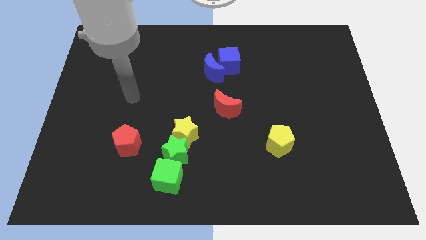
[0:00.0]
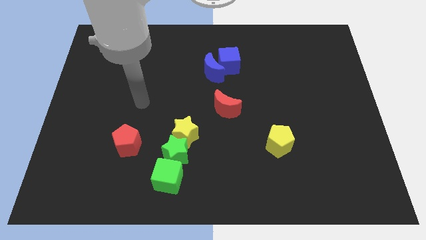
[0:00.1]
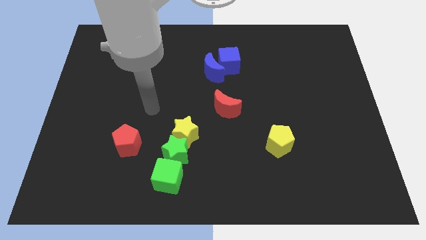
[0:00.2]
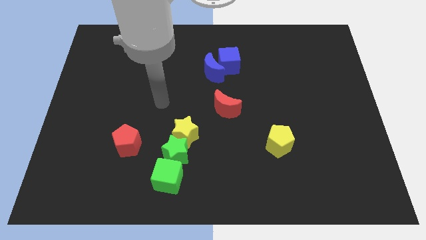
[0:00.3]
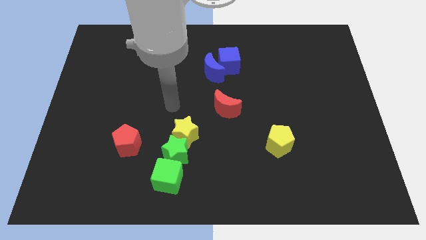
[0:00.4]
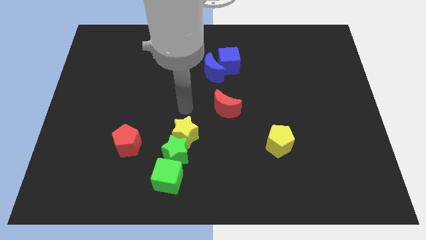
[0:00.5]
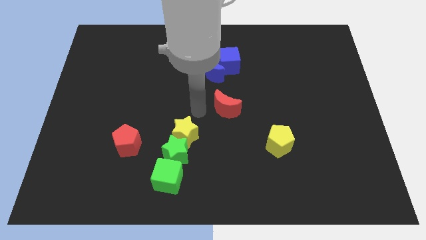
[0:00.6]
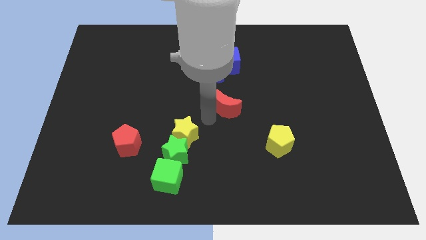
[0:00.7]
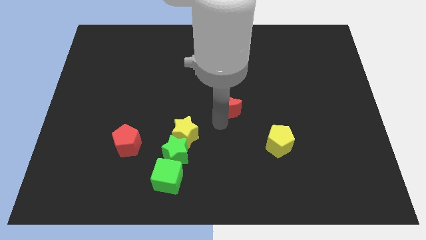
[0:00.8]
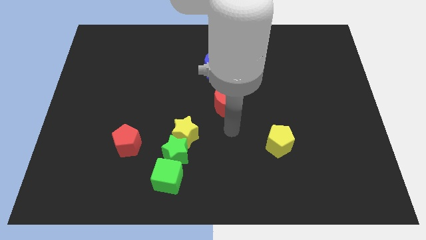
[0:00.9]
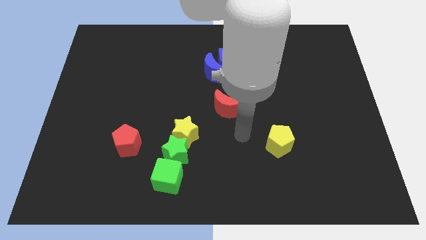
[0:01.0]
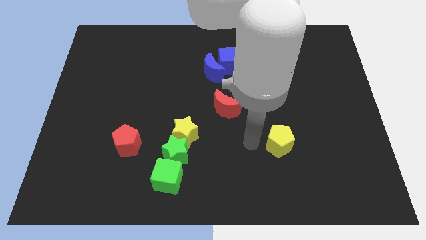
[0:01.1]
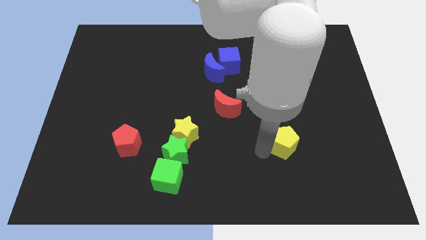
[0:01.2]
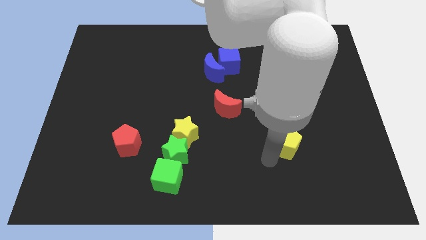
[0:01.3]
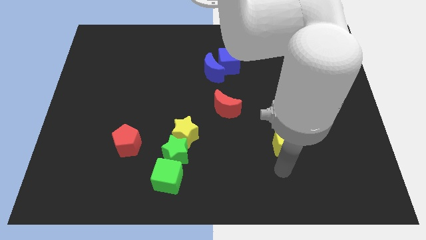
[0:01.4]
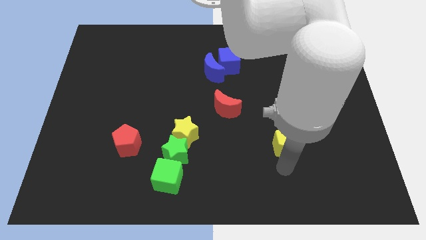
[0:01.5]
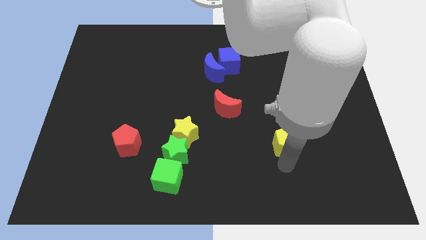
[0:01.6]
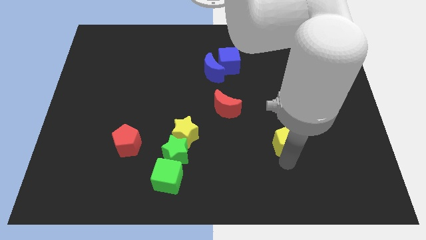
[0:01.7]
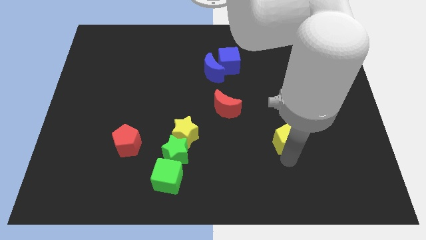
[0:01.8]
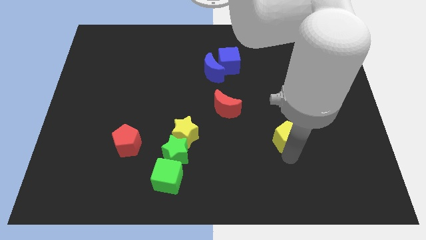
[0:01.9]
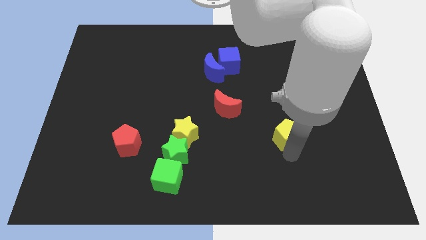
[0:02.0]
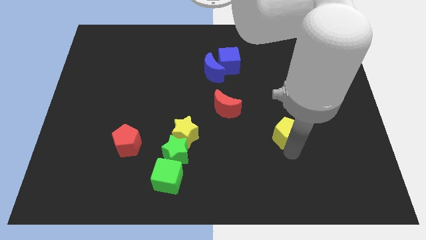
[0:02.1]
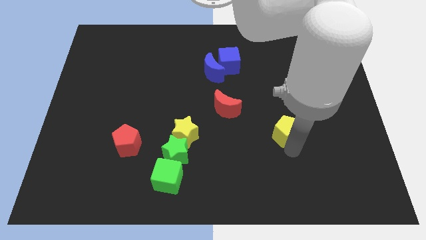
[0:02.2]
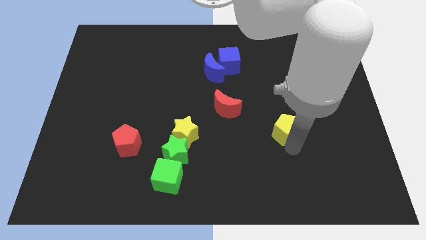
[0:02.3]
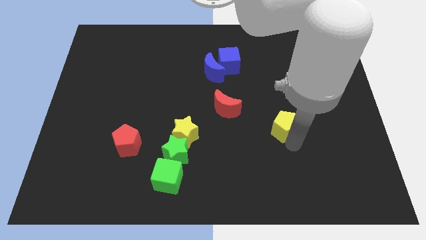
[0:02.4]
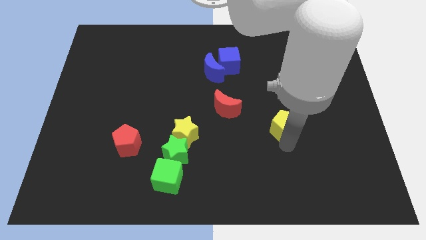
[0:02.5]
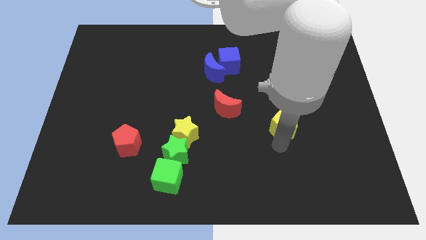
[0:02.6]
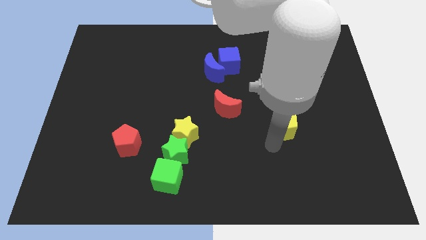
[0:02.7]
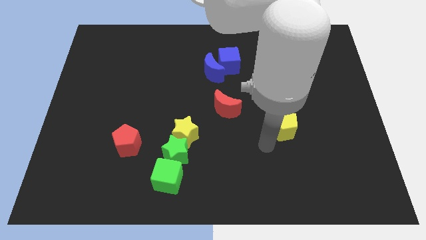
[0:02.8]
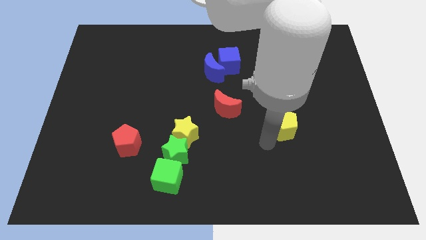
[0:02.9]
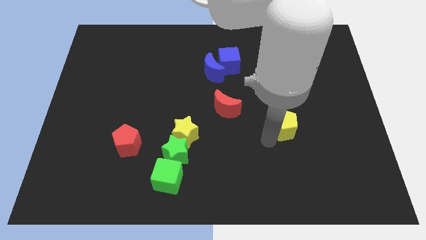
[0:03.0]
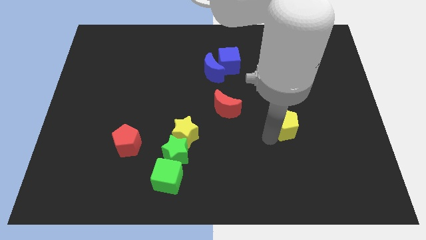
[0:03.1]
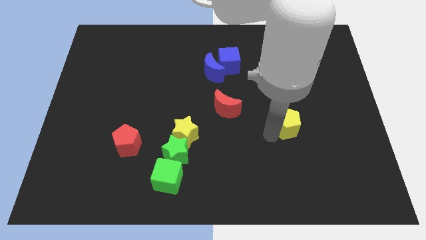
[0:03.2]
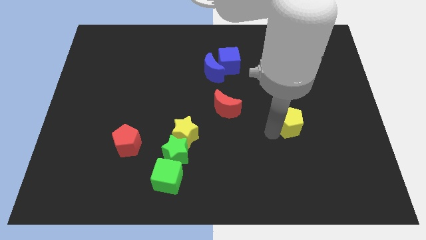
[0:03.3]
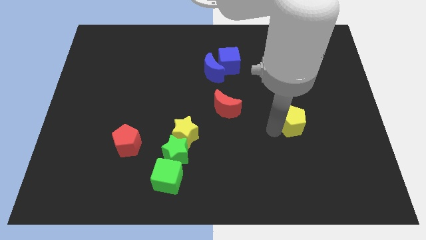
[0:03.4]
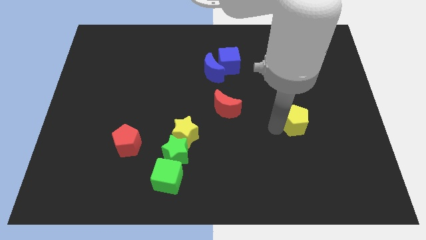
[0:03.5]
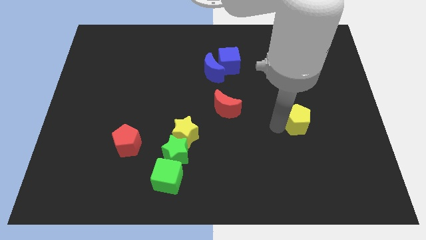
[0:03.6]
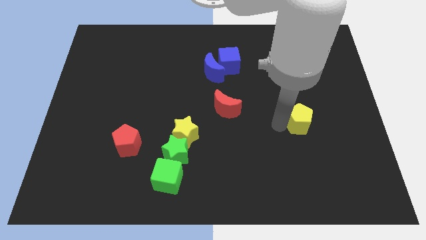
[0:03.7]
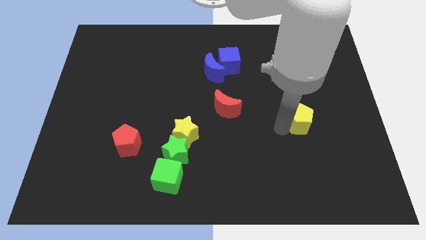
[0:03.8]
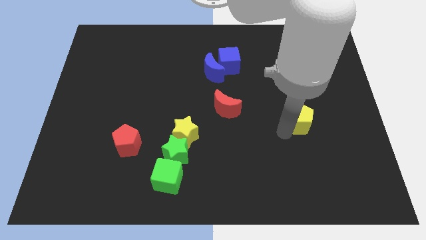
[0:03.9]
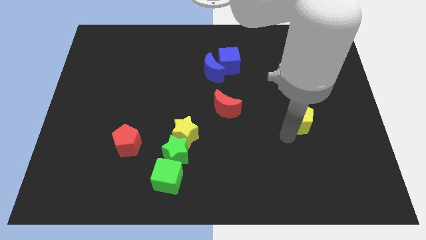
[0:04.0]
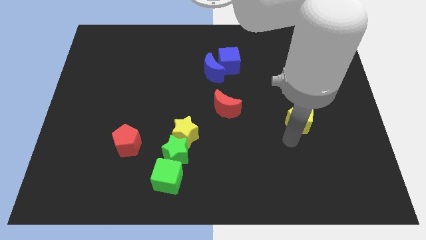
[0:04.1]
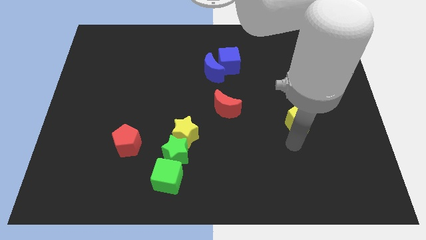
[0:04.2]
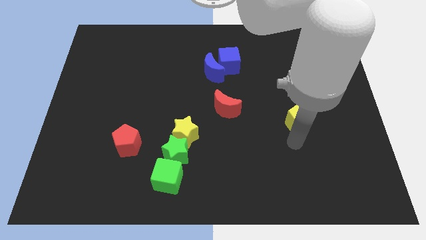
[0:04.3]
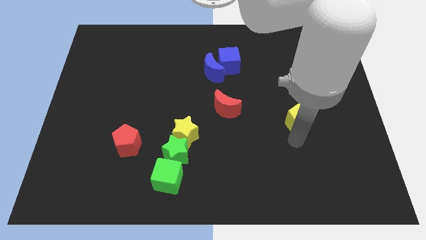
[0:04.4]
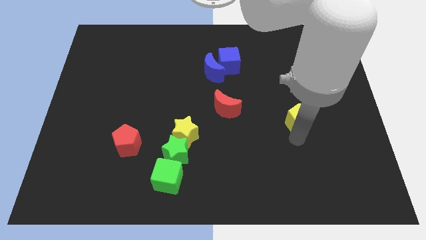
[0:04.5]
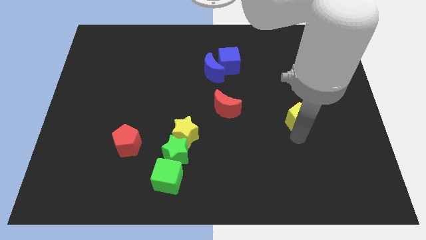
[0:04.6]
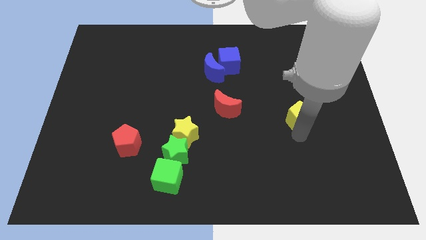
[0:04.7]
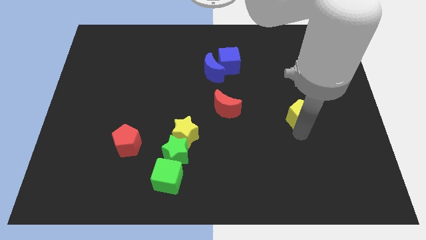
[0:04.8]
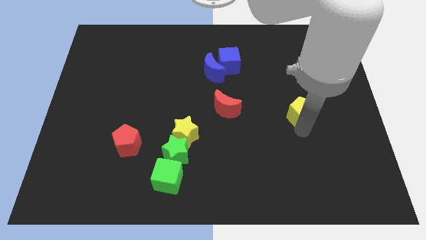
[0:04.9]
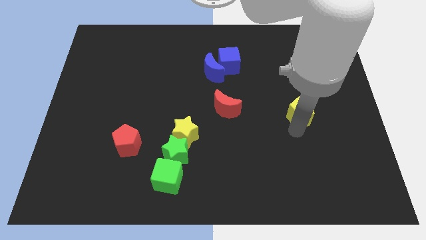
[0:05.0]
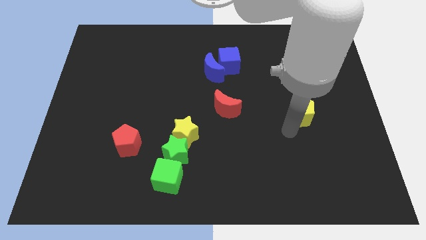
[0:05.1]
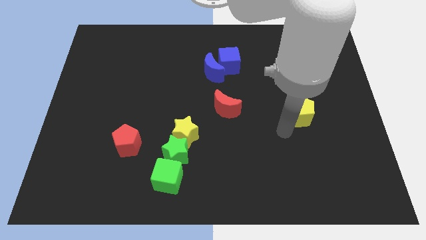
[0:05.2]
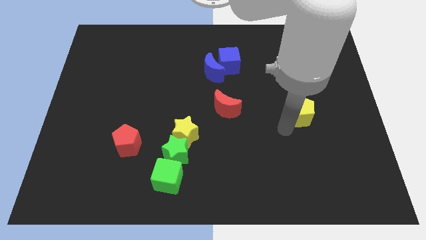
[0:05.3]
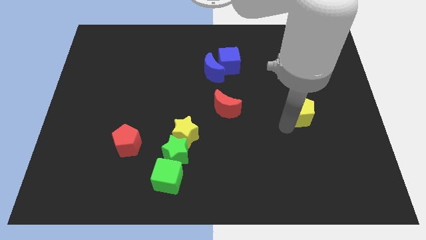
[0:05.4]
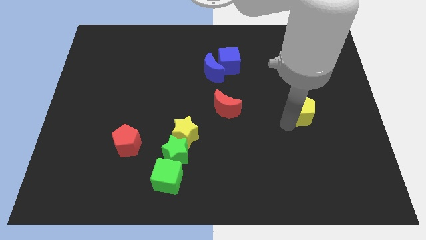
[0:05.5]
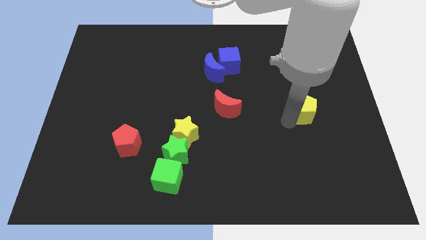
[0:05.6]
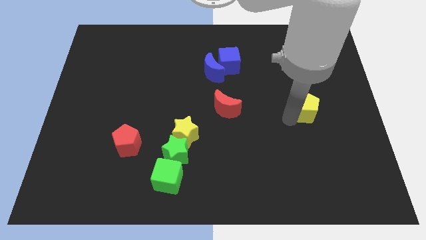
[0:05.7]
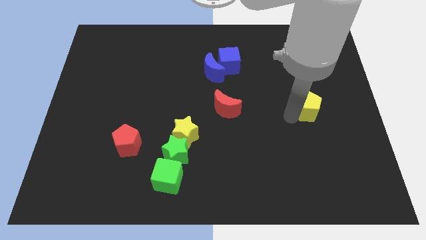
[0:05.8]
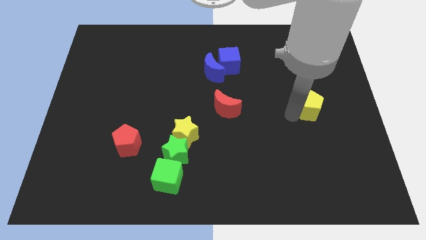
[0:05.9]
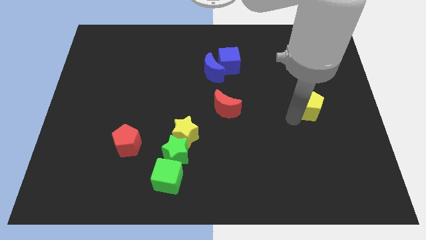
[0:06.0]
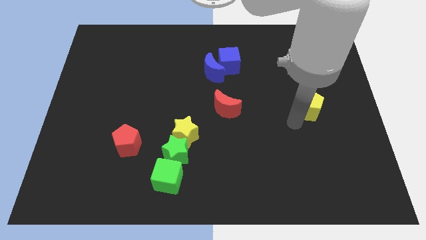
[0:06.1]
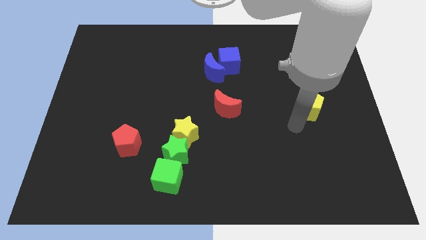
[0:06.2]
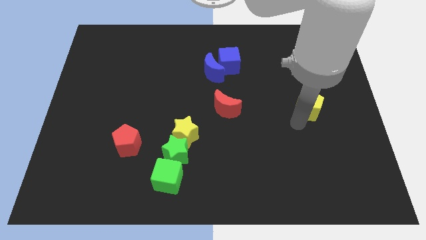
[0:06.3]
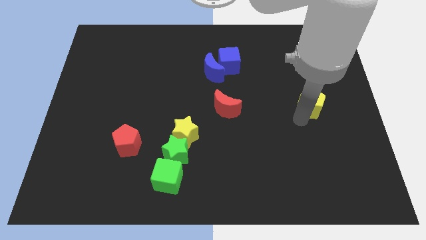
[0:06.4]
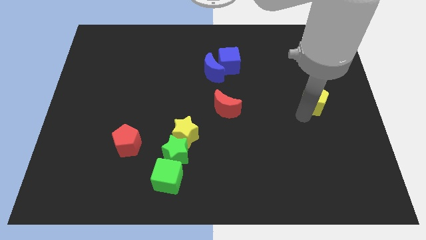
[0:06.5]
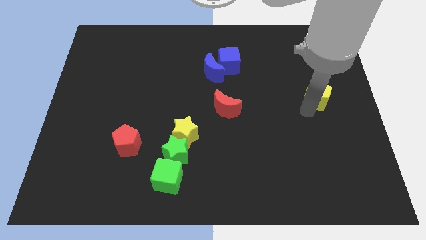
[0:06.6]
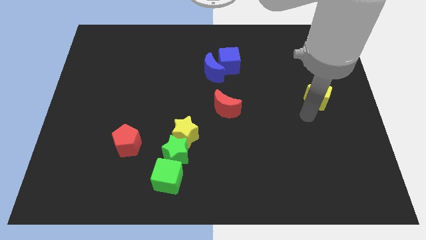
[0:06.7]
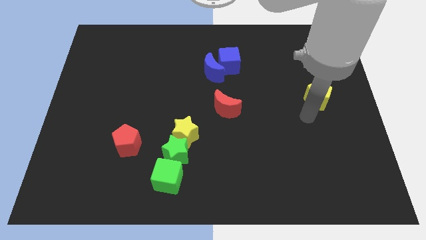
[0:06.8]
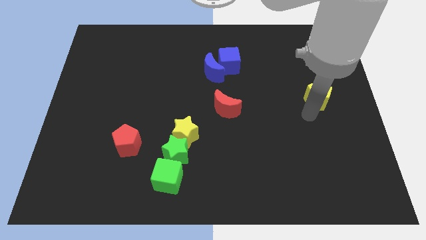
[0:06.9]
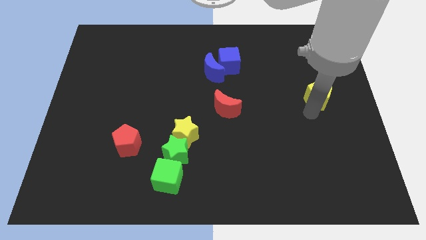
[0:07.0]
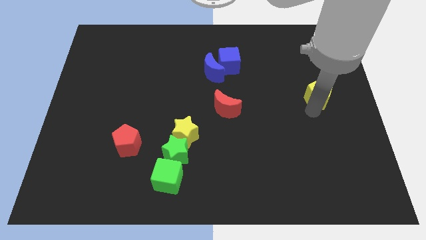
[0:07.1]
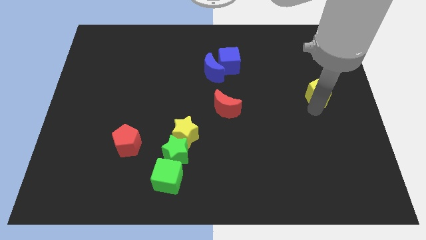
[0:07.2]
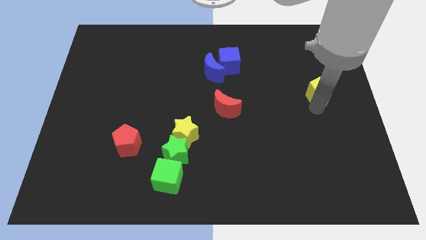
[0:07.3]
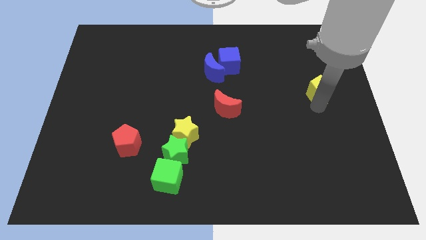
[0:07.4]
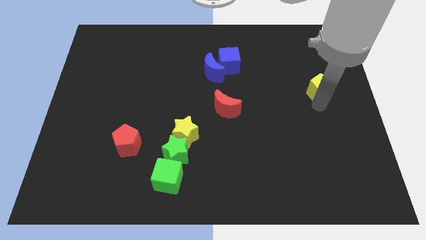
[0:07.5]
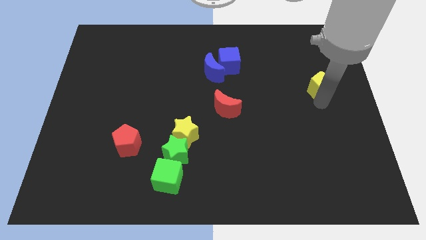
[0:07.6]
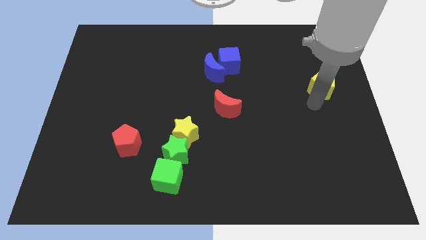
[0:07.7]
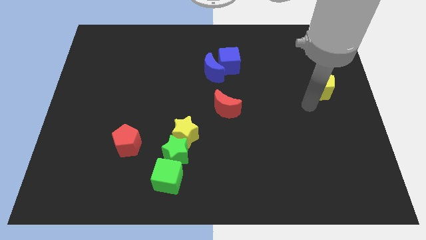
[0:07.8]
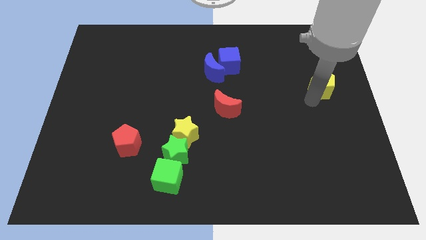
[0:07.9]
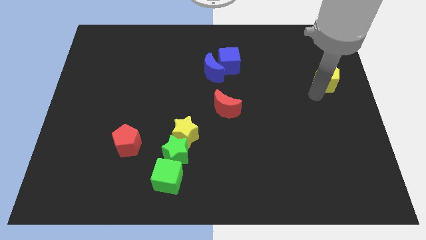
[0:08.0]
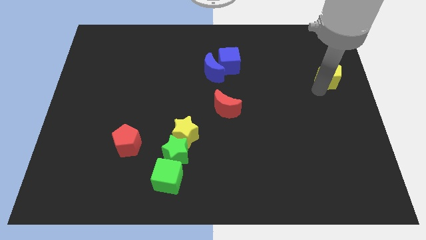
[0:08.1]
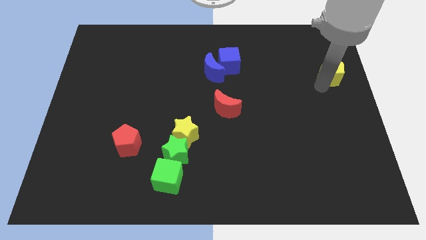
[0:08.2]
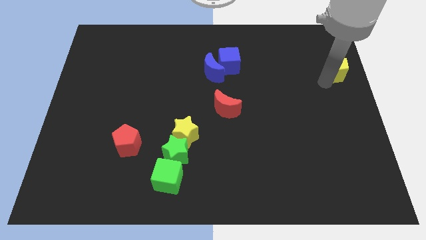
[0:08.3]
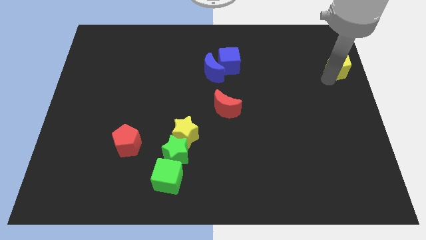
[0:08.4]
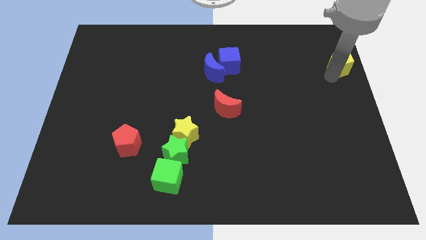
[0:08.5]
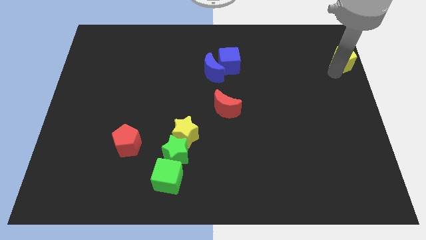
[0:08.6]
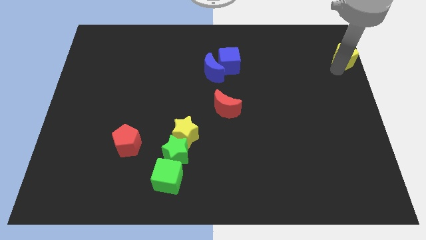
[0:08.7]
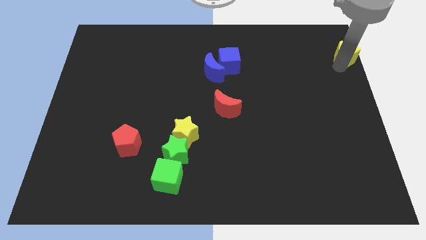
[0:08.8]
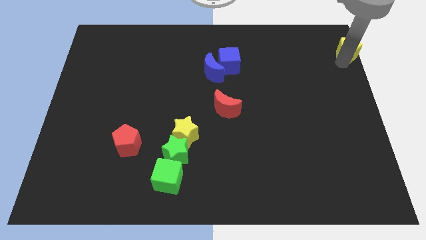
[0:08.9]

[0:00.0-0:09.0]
push the yellow pentagon to the top right of the board
